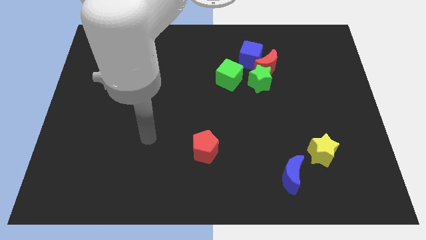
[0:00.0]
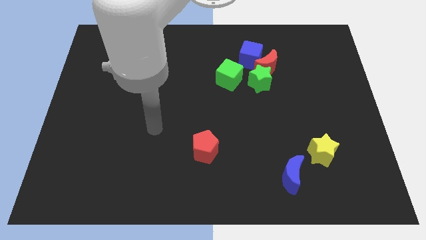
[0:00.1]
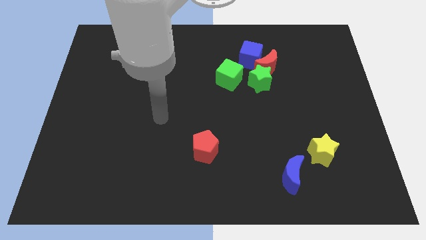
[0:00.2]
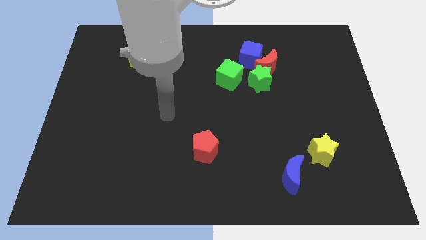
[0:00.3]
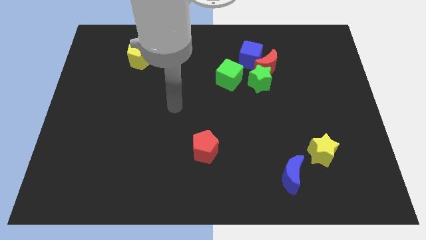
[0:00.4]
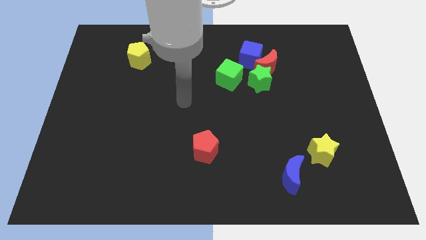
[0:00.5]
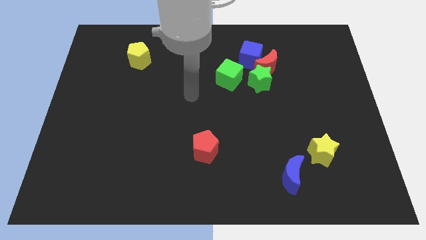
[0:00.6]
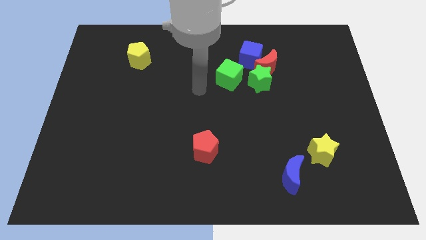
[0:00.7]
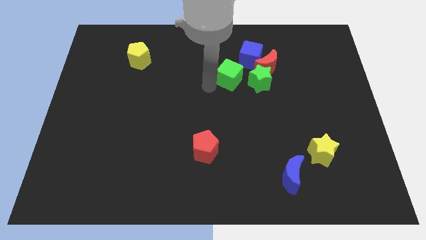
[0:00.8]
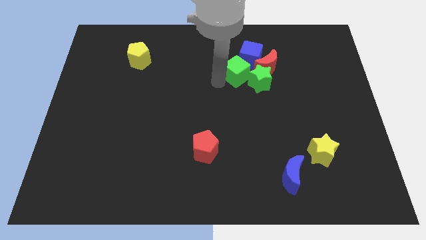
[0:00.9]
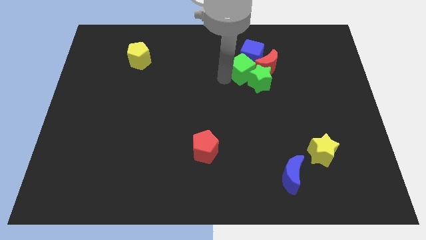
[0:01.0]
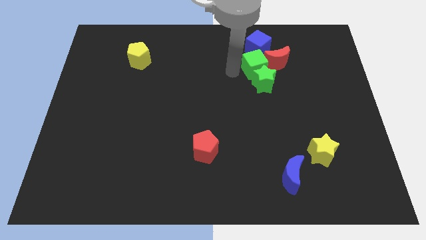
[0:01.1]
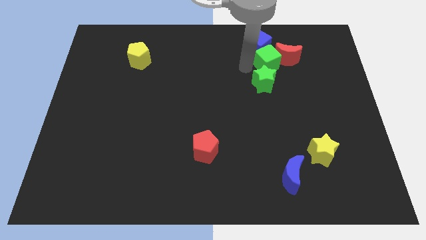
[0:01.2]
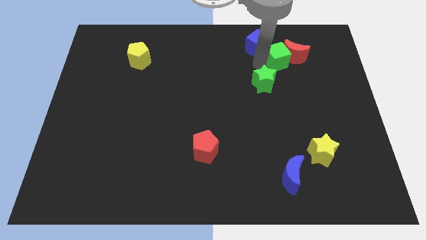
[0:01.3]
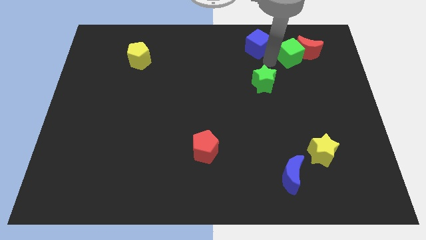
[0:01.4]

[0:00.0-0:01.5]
separate the red moon from the green star and blue cube

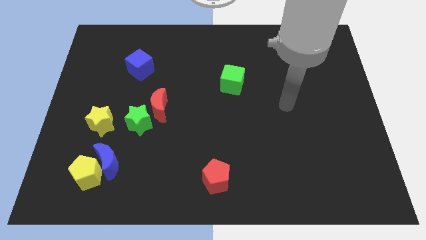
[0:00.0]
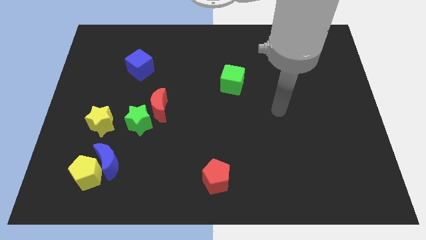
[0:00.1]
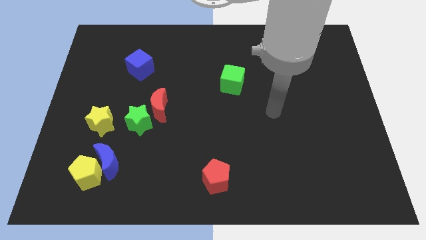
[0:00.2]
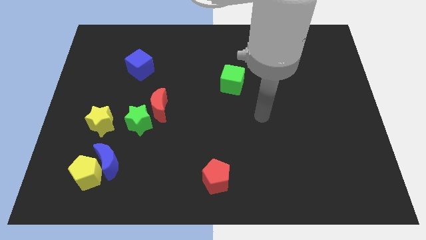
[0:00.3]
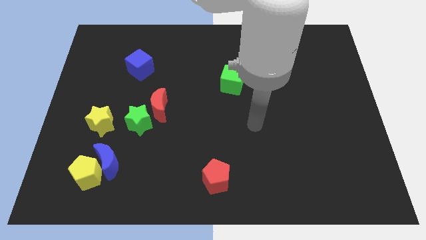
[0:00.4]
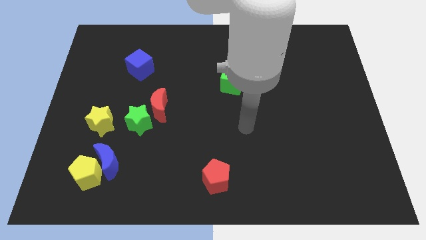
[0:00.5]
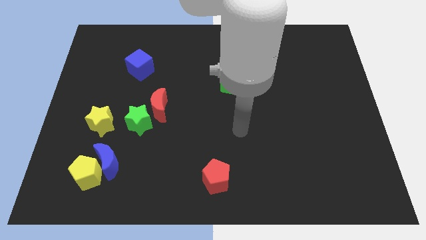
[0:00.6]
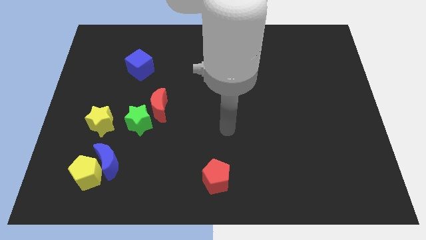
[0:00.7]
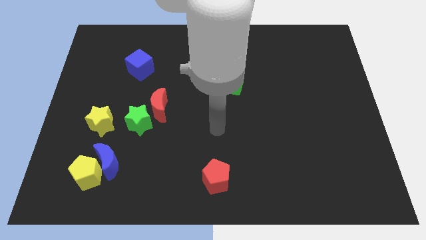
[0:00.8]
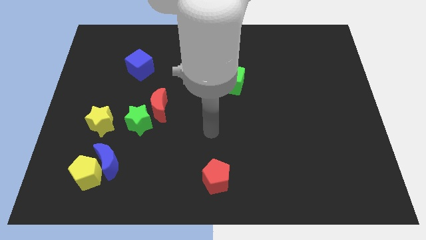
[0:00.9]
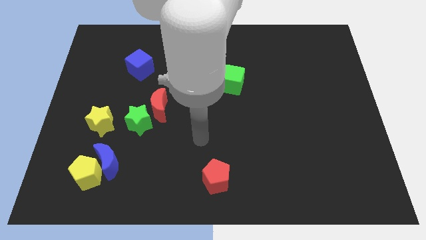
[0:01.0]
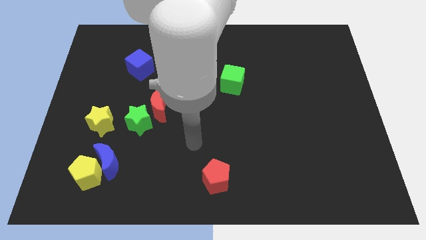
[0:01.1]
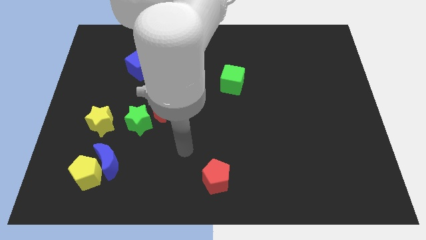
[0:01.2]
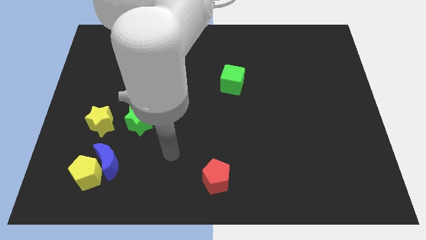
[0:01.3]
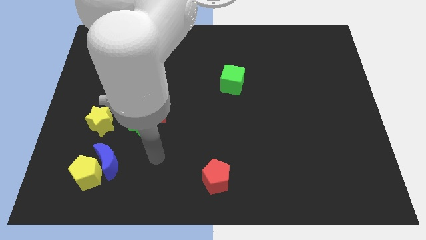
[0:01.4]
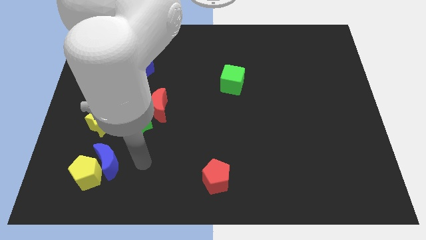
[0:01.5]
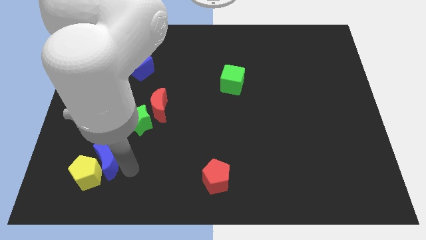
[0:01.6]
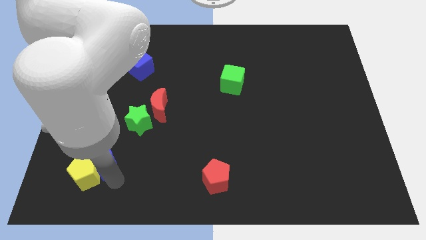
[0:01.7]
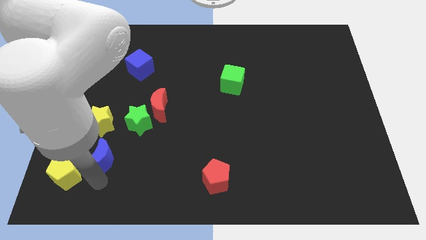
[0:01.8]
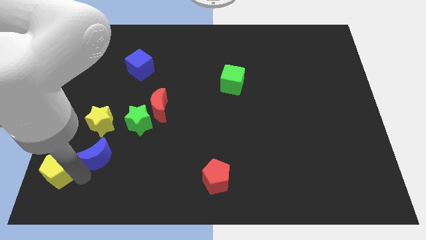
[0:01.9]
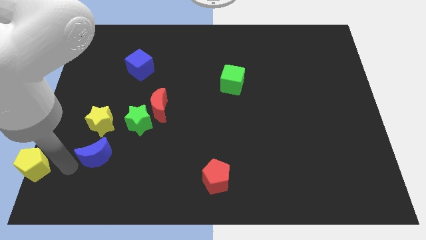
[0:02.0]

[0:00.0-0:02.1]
move the blue moon away from the yellow pentagon

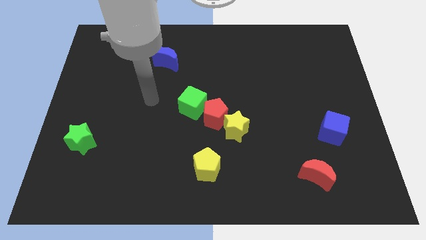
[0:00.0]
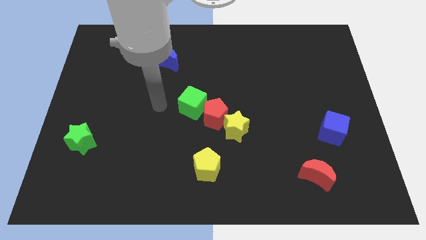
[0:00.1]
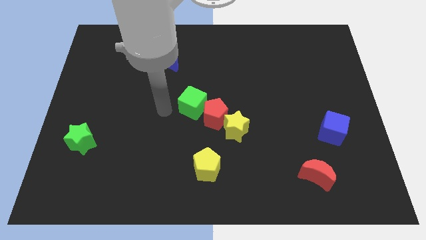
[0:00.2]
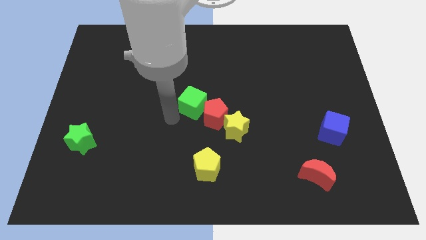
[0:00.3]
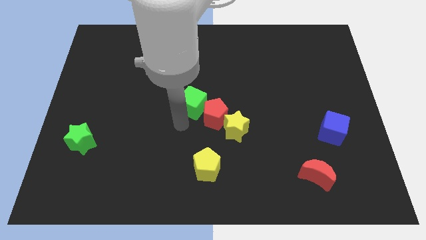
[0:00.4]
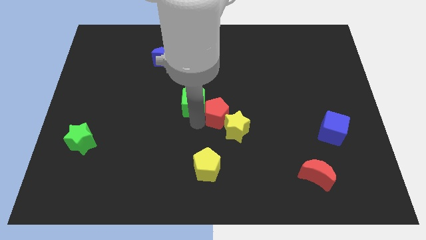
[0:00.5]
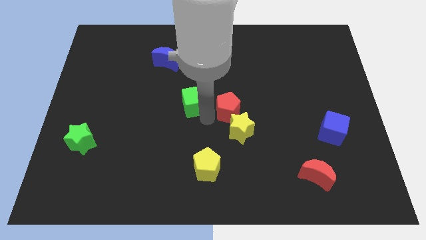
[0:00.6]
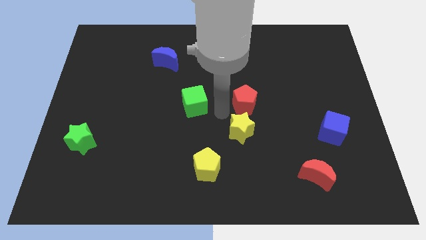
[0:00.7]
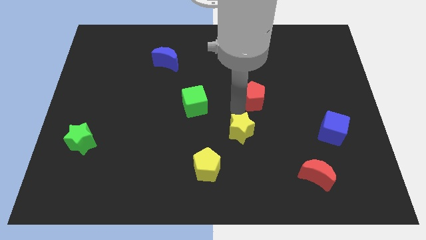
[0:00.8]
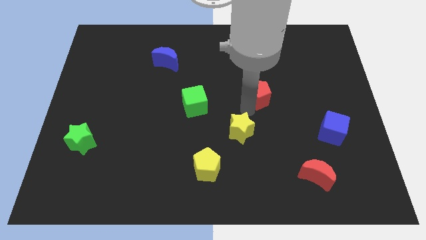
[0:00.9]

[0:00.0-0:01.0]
pull the yellow star apart from the red pentagon

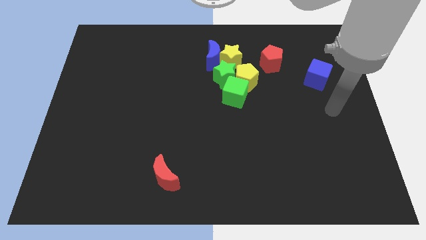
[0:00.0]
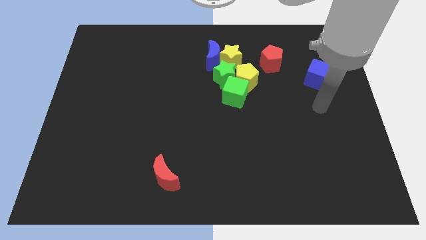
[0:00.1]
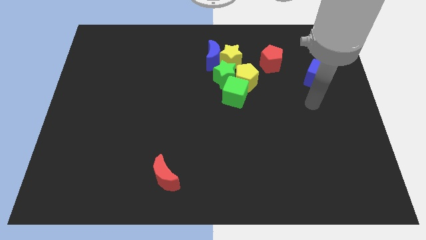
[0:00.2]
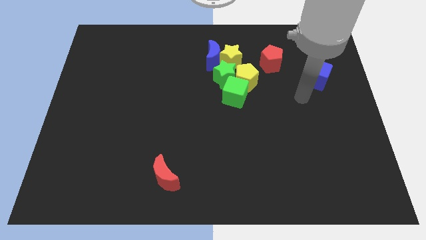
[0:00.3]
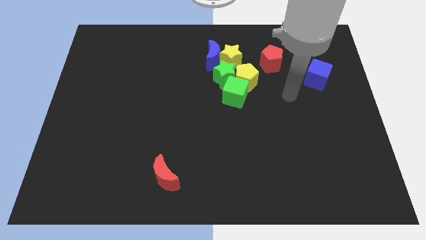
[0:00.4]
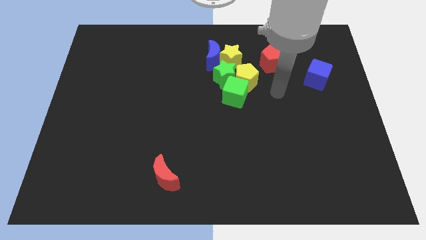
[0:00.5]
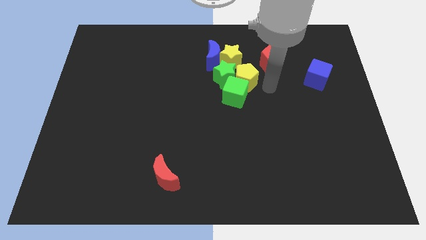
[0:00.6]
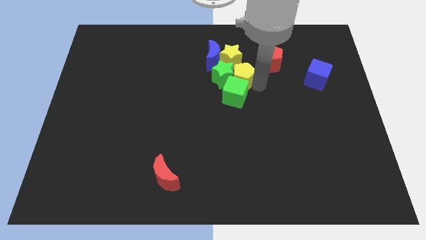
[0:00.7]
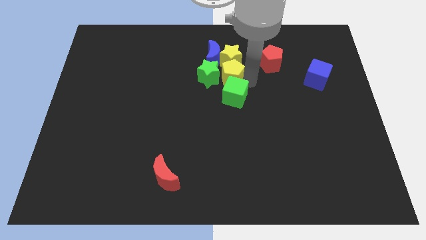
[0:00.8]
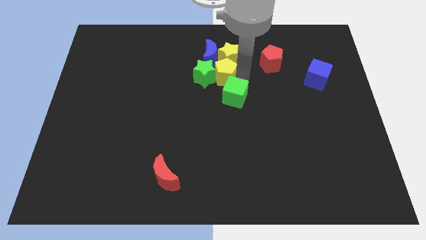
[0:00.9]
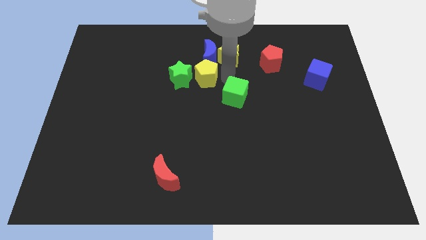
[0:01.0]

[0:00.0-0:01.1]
pull the green cube apart from the yellow pentagon and green star

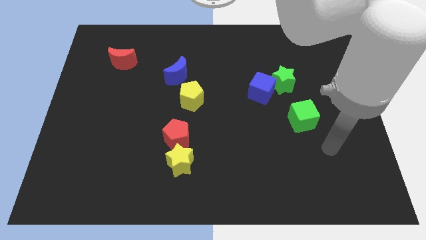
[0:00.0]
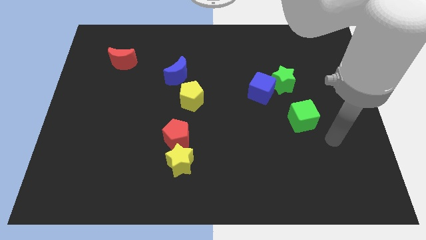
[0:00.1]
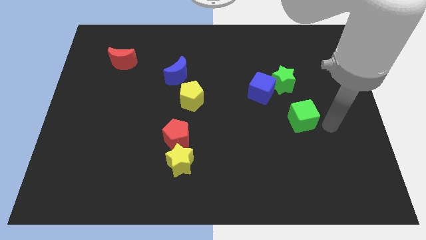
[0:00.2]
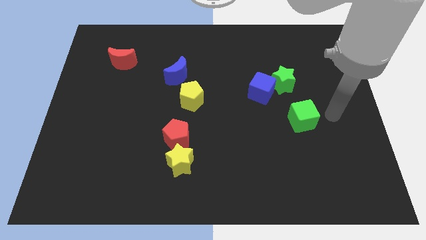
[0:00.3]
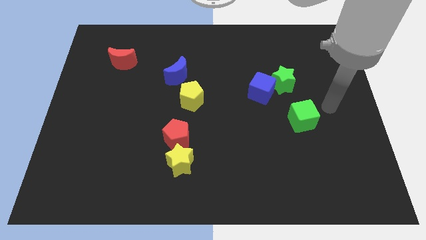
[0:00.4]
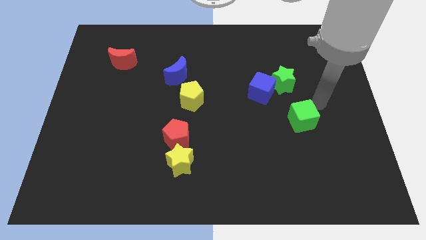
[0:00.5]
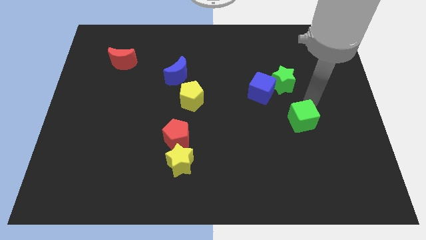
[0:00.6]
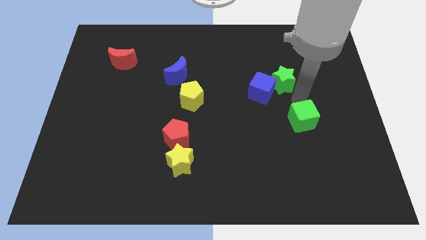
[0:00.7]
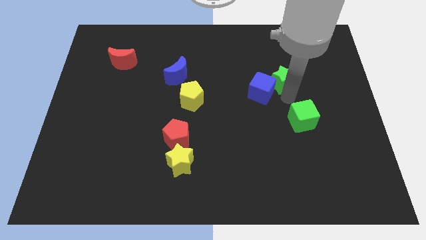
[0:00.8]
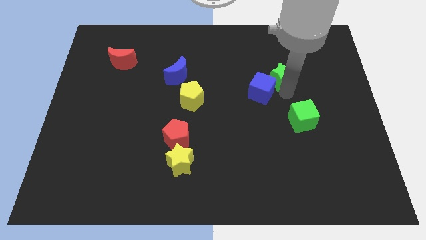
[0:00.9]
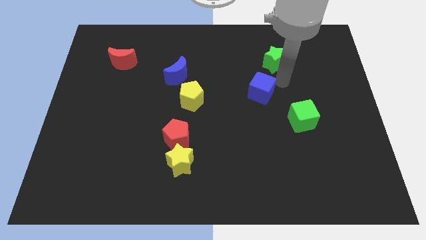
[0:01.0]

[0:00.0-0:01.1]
move the blue cube away from the green star

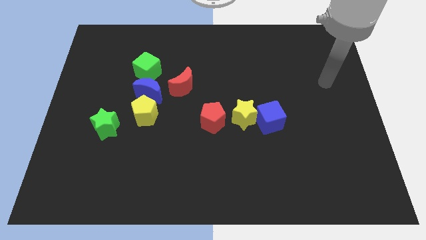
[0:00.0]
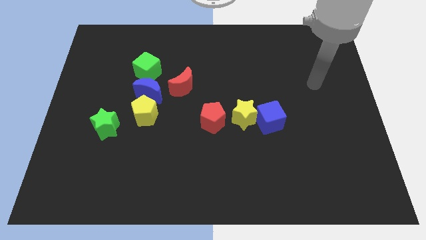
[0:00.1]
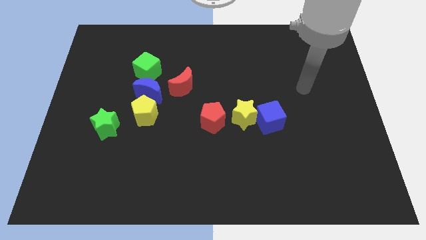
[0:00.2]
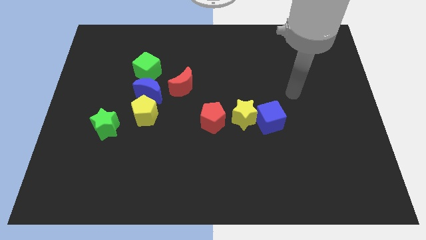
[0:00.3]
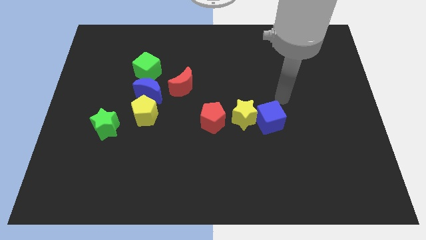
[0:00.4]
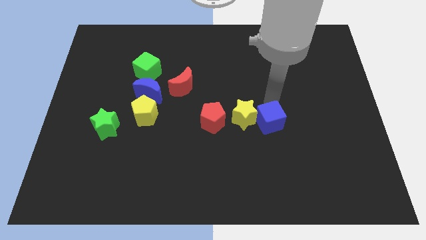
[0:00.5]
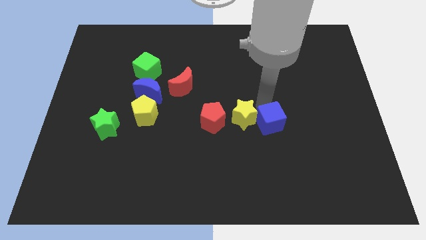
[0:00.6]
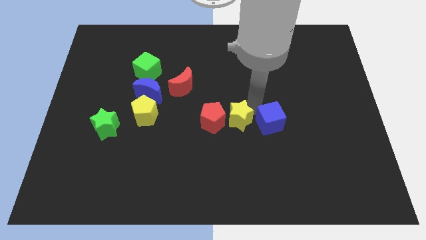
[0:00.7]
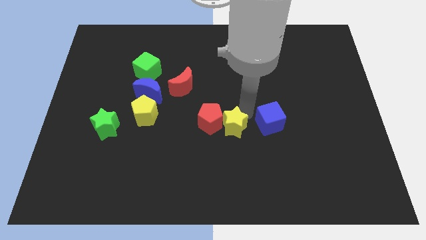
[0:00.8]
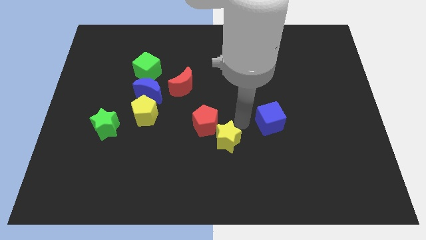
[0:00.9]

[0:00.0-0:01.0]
move the blue cube away from the yellow star

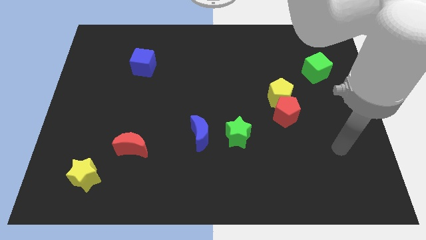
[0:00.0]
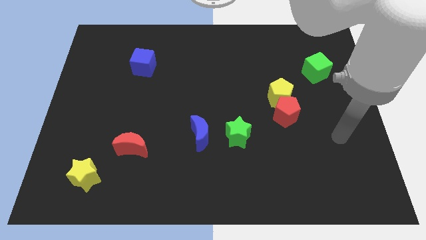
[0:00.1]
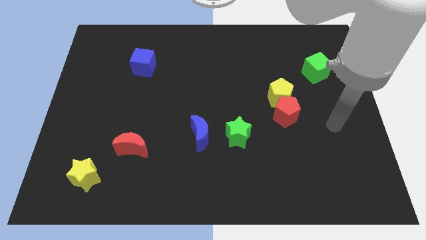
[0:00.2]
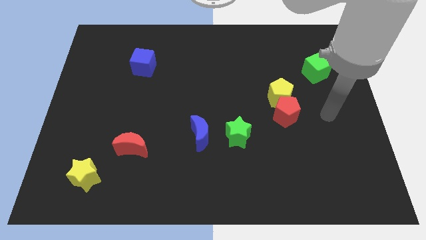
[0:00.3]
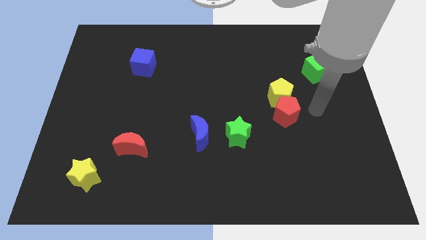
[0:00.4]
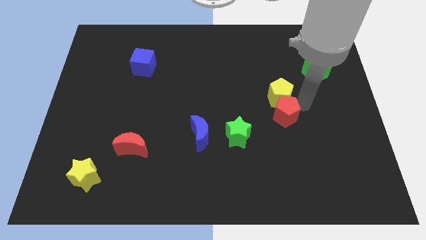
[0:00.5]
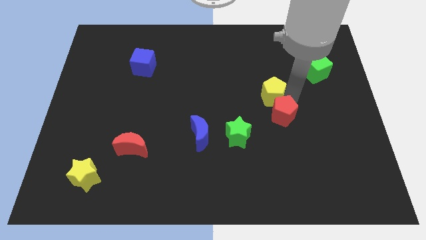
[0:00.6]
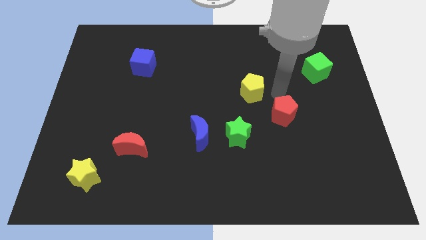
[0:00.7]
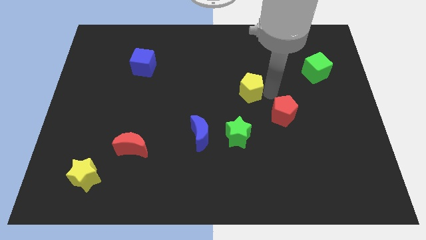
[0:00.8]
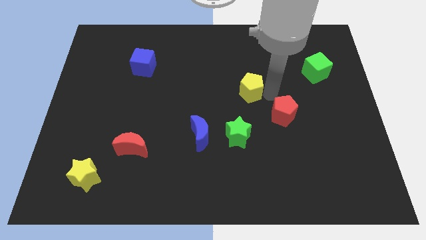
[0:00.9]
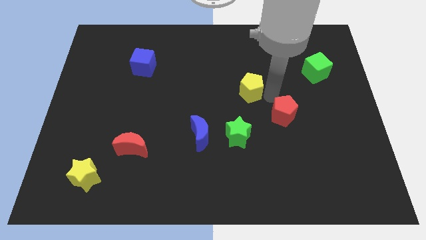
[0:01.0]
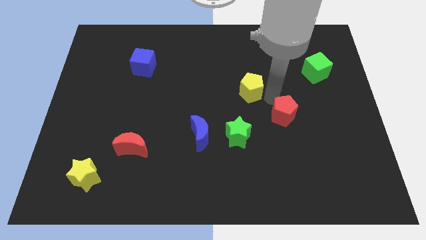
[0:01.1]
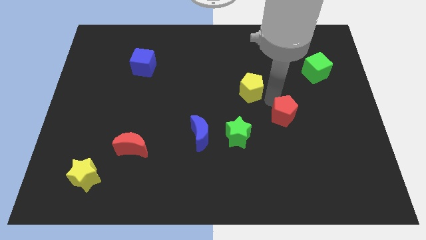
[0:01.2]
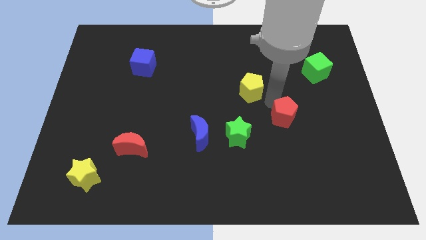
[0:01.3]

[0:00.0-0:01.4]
separate the red pentagon from the yellow pentagon

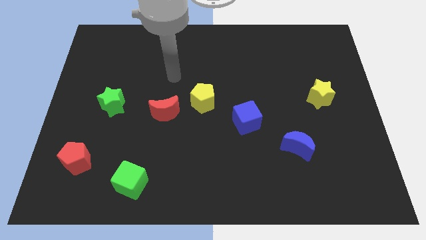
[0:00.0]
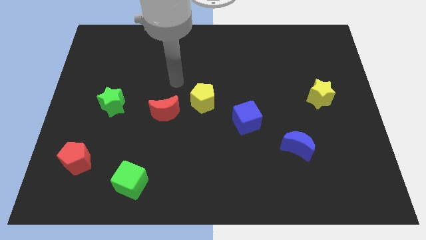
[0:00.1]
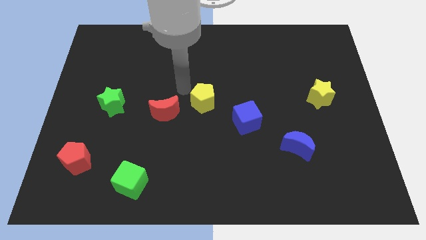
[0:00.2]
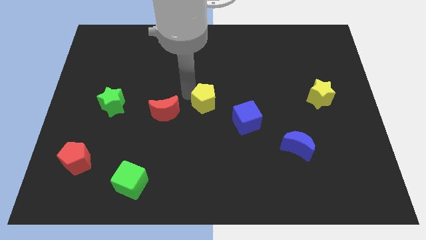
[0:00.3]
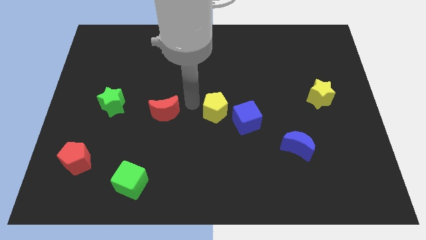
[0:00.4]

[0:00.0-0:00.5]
move the red moon away from the yellow pentagon
